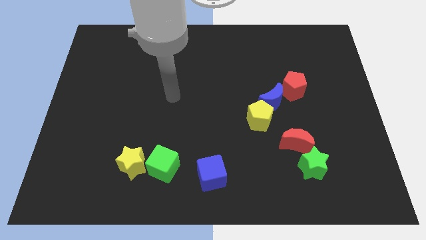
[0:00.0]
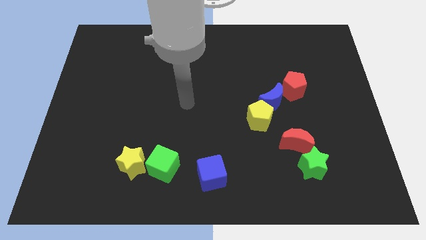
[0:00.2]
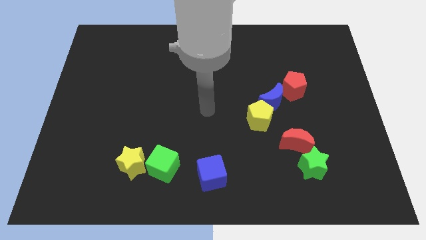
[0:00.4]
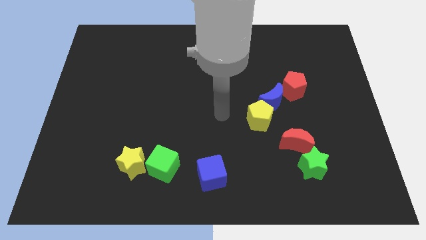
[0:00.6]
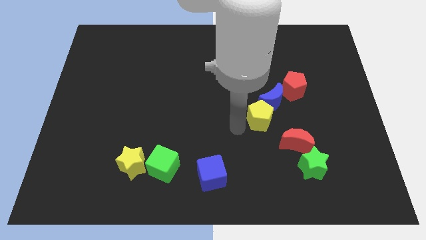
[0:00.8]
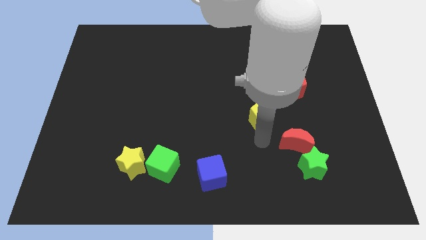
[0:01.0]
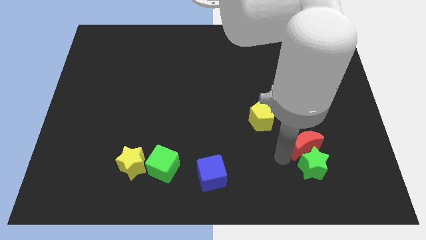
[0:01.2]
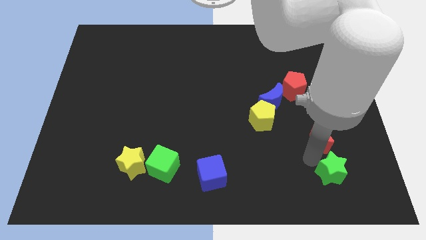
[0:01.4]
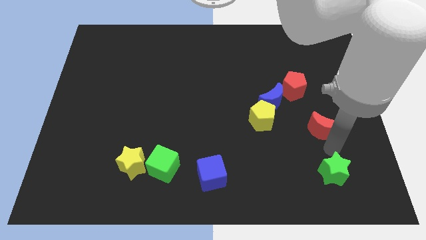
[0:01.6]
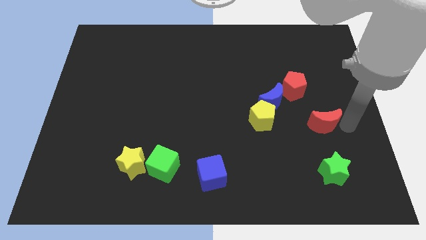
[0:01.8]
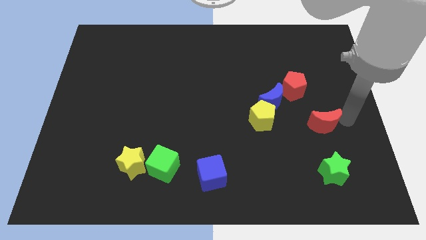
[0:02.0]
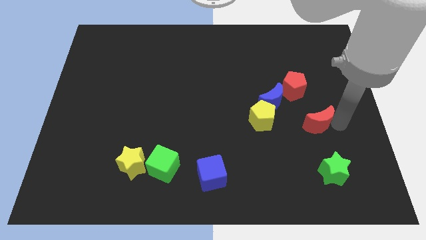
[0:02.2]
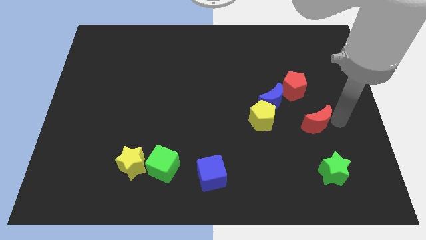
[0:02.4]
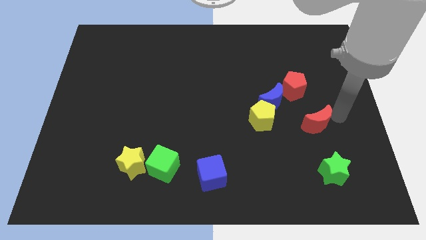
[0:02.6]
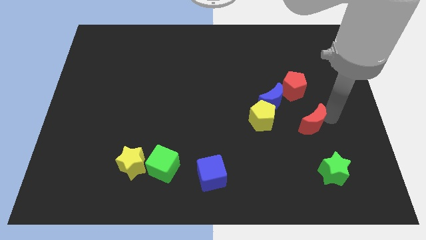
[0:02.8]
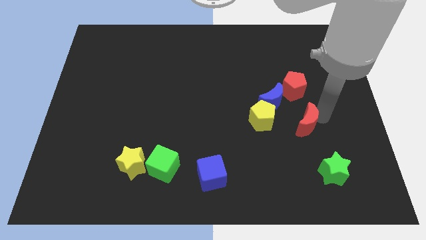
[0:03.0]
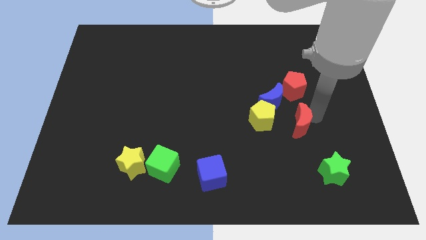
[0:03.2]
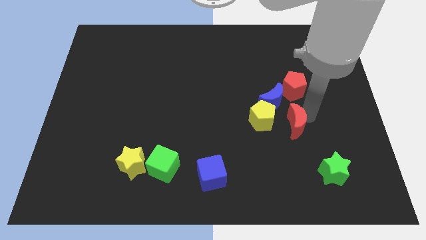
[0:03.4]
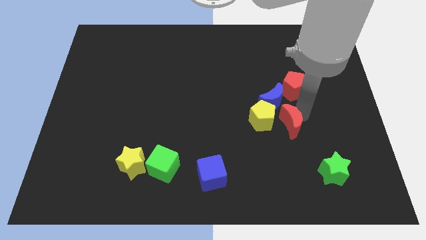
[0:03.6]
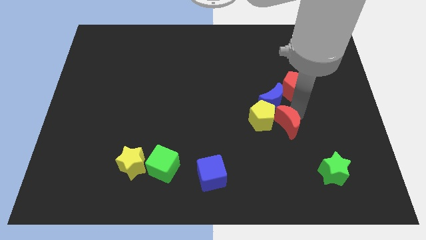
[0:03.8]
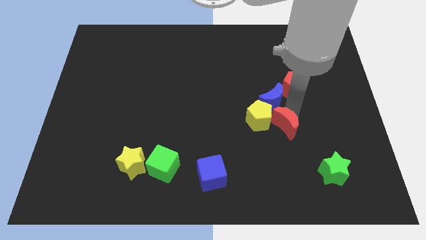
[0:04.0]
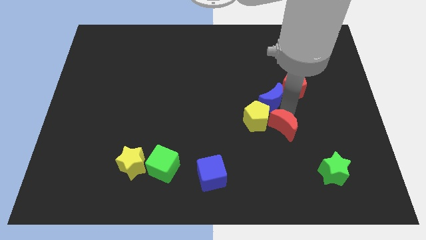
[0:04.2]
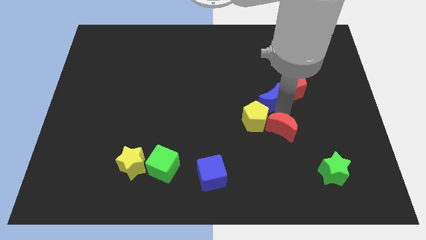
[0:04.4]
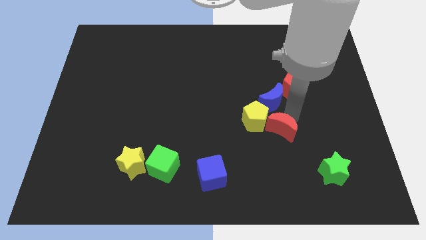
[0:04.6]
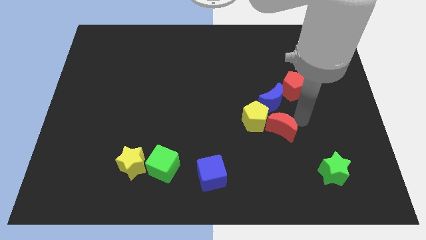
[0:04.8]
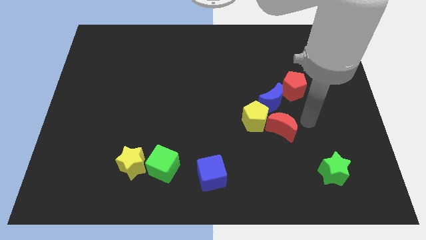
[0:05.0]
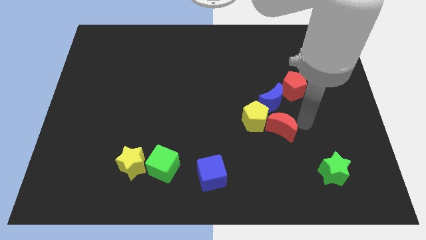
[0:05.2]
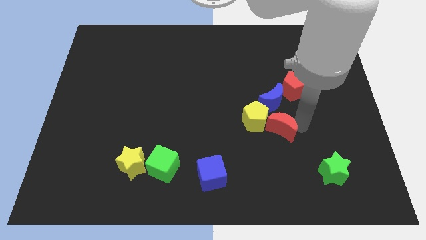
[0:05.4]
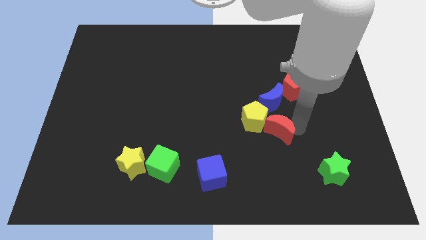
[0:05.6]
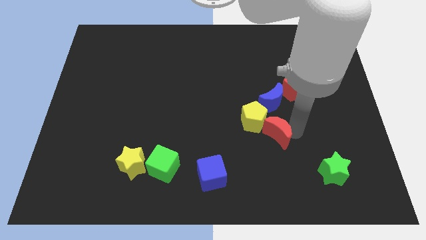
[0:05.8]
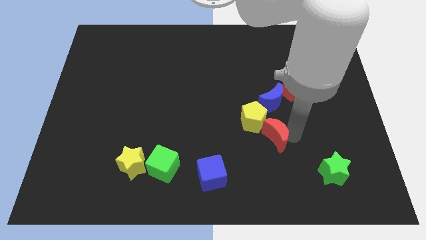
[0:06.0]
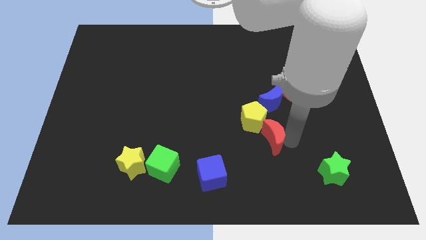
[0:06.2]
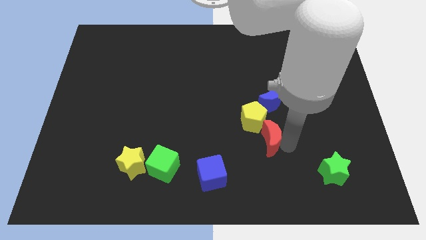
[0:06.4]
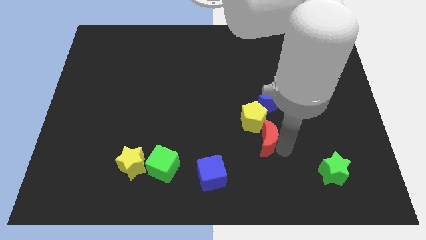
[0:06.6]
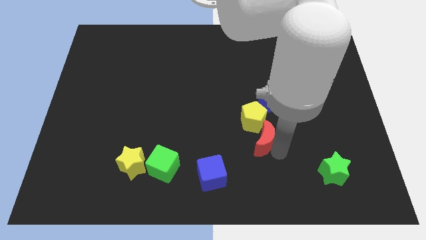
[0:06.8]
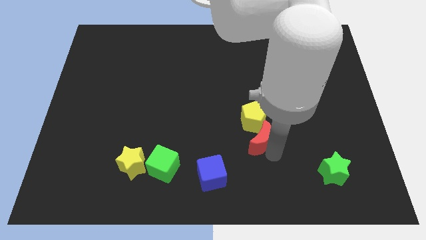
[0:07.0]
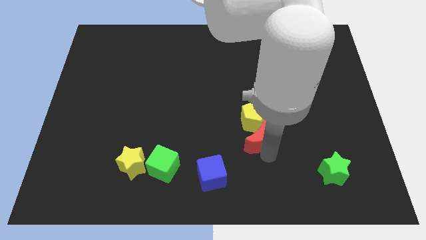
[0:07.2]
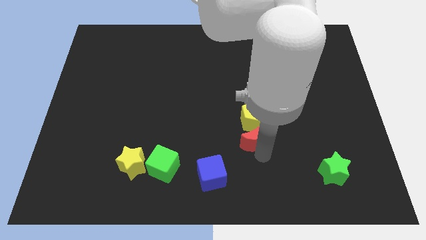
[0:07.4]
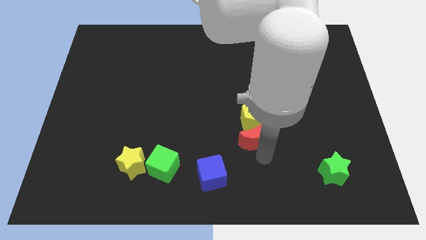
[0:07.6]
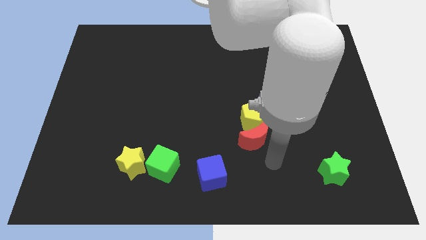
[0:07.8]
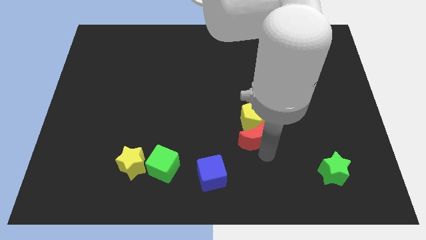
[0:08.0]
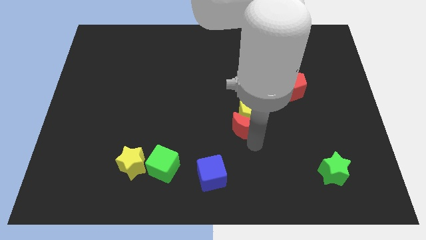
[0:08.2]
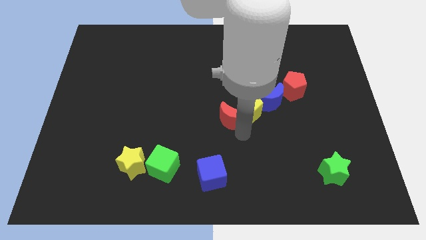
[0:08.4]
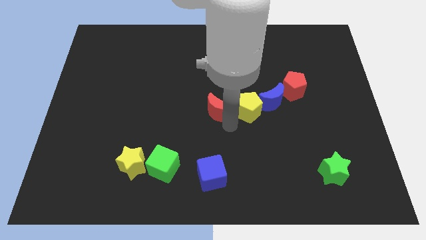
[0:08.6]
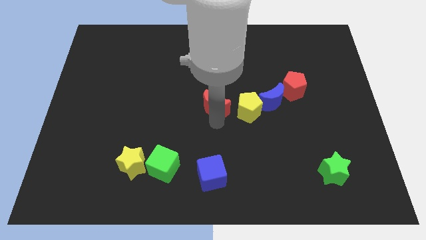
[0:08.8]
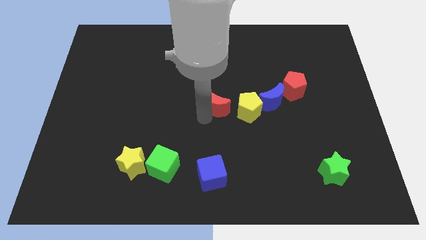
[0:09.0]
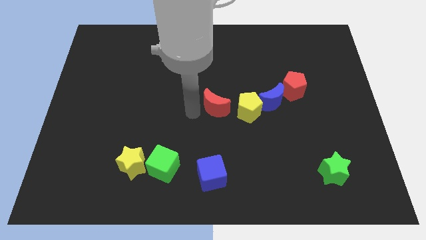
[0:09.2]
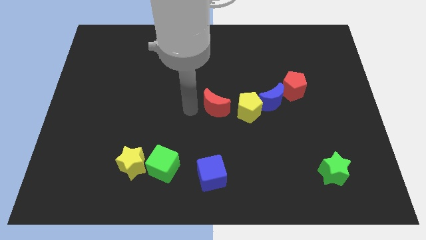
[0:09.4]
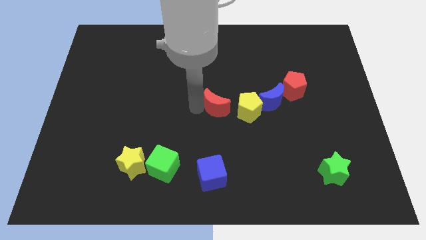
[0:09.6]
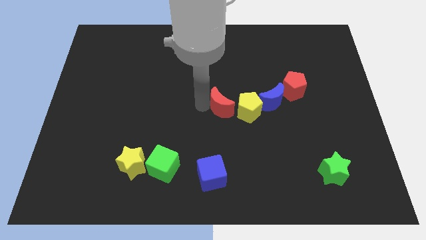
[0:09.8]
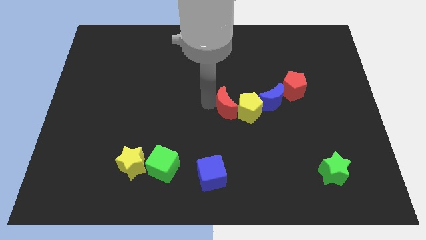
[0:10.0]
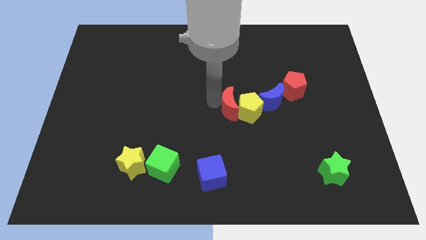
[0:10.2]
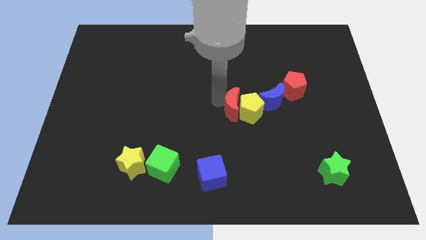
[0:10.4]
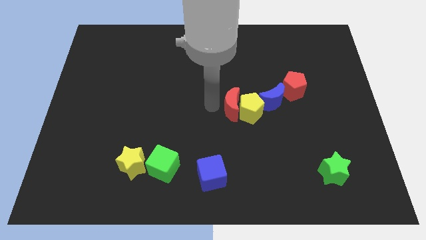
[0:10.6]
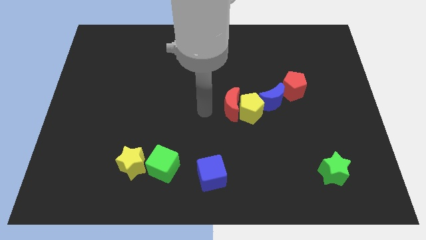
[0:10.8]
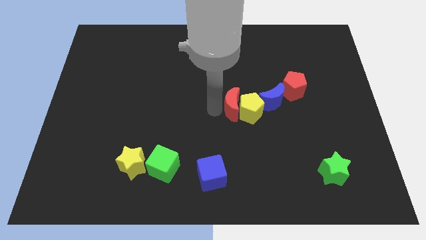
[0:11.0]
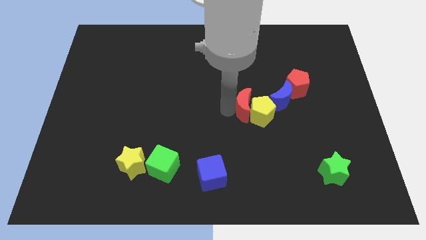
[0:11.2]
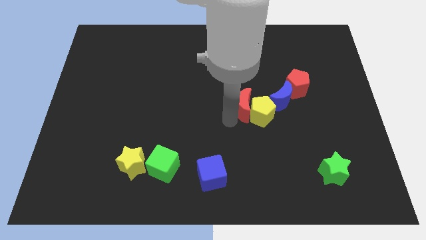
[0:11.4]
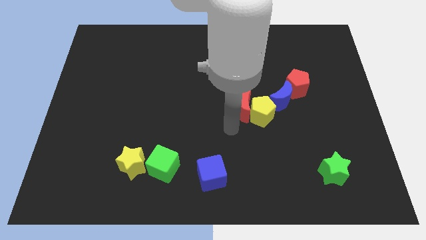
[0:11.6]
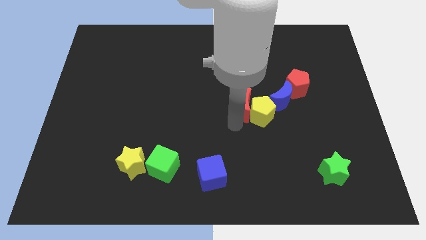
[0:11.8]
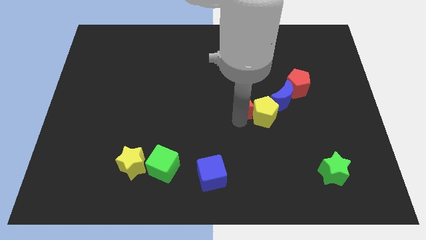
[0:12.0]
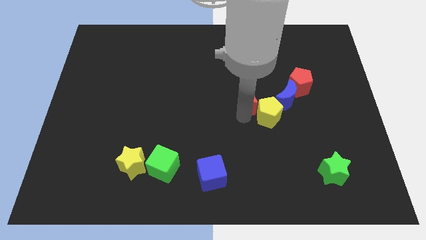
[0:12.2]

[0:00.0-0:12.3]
move the red moon to the left of the red pentagon
